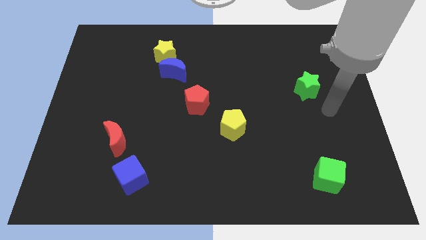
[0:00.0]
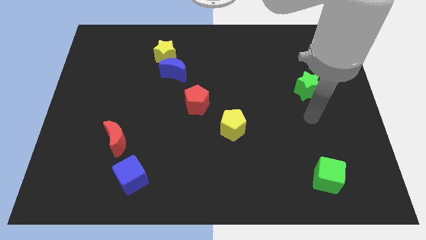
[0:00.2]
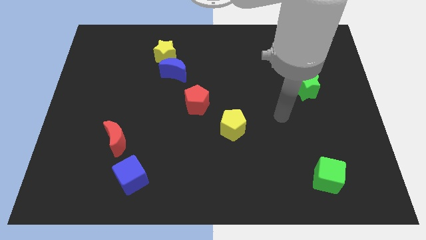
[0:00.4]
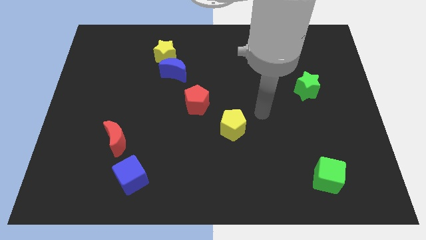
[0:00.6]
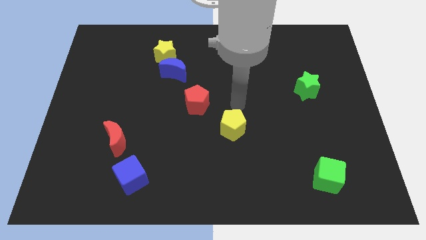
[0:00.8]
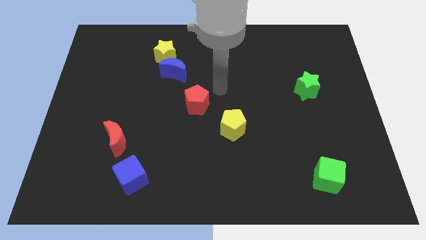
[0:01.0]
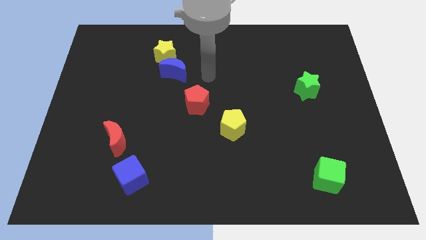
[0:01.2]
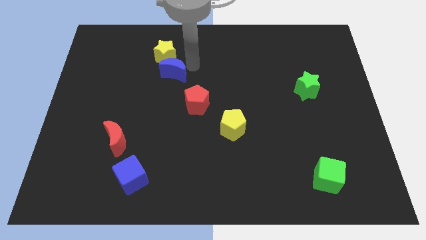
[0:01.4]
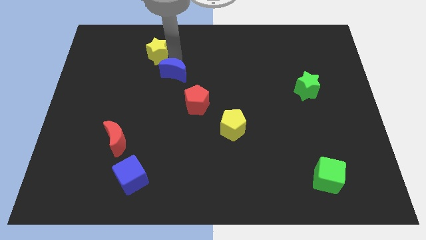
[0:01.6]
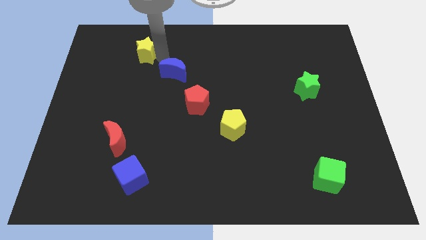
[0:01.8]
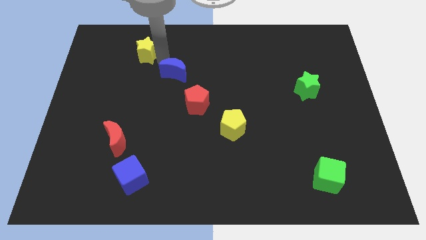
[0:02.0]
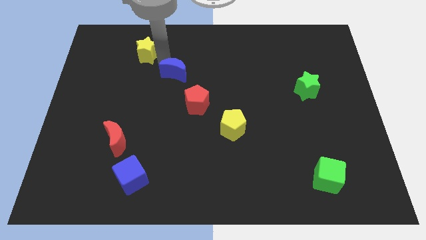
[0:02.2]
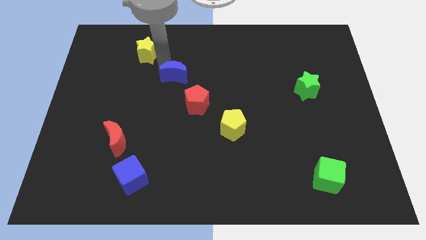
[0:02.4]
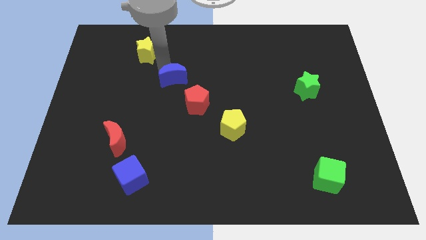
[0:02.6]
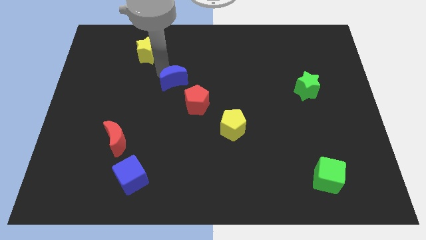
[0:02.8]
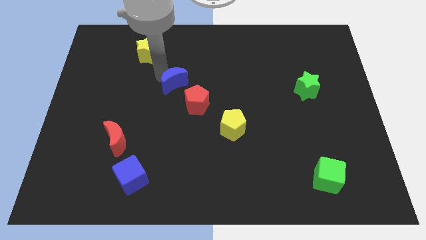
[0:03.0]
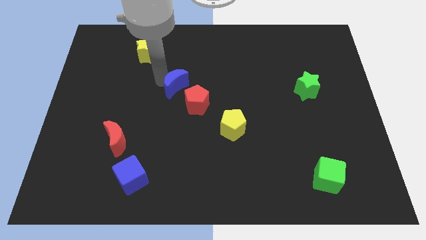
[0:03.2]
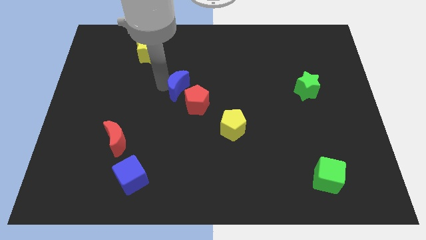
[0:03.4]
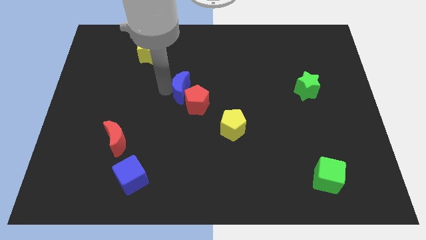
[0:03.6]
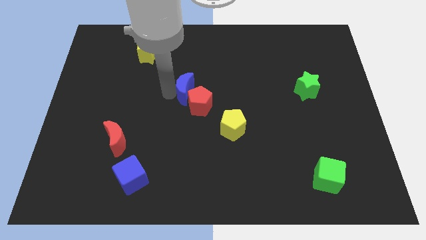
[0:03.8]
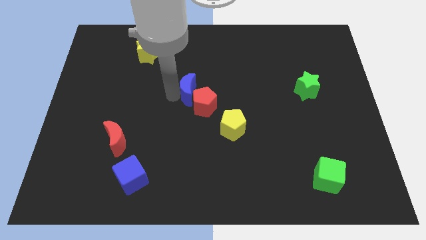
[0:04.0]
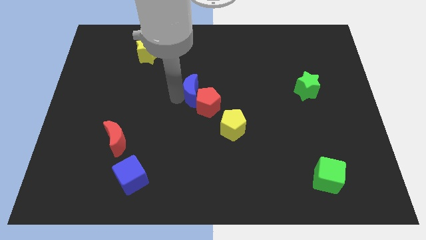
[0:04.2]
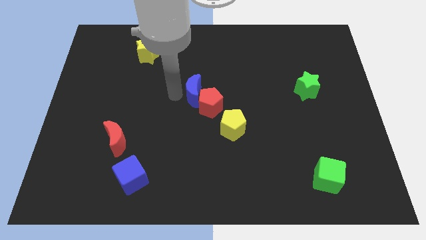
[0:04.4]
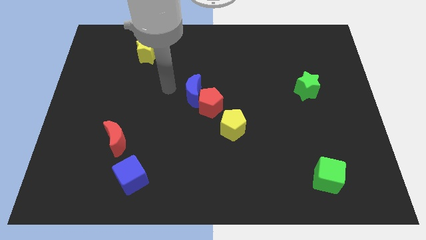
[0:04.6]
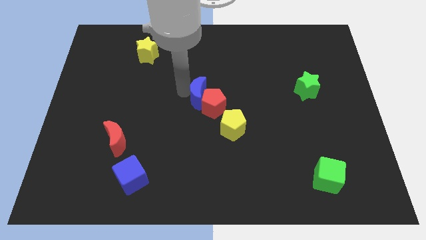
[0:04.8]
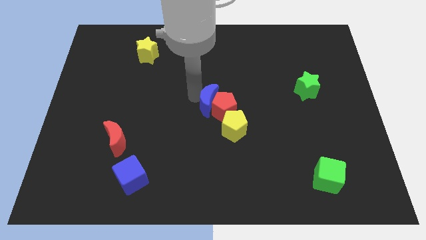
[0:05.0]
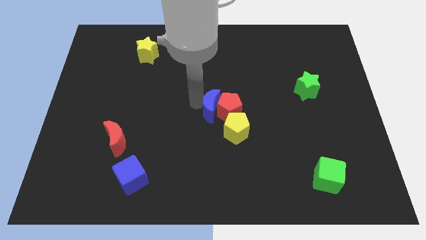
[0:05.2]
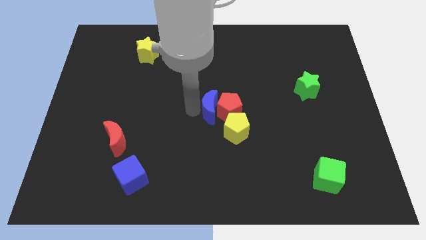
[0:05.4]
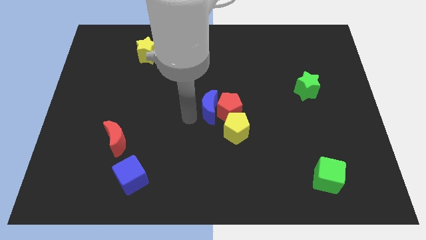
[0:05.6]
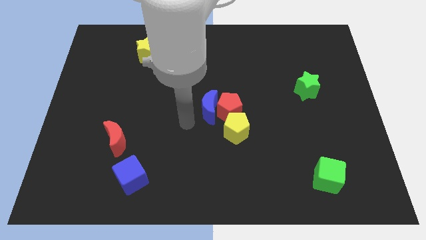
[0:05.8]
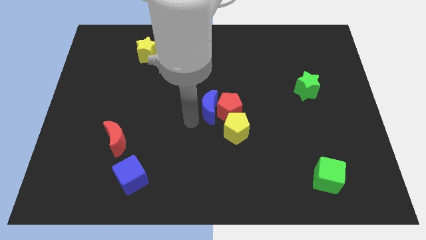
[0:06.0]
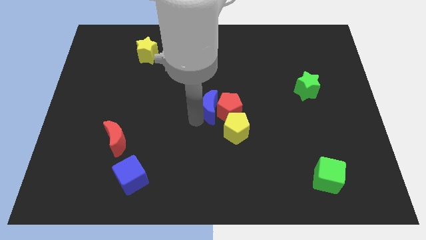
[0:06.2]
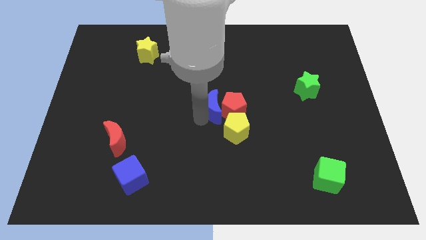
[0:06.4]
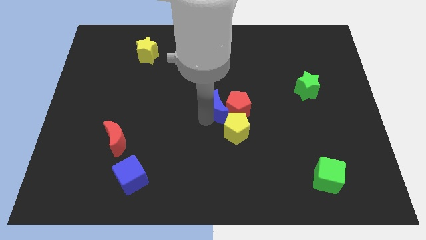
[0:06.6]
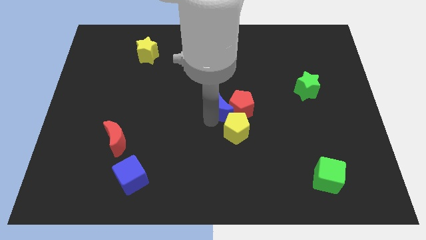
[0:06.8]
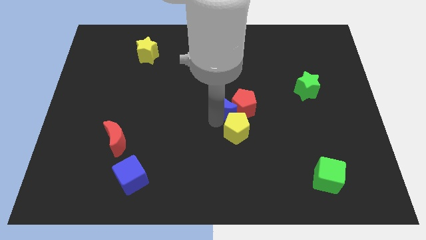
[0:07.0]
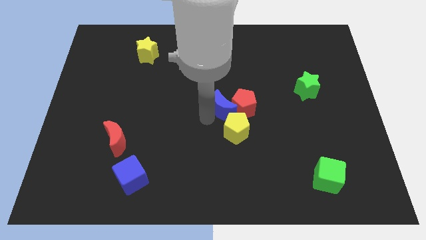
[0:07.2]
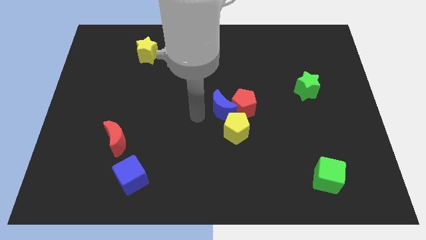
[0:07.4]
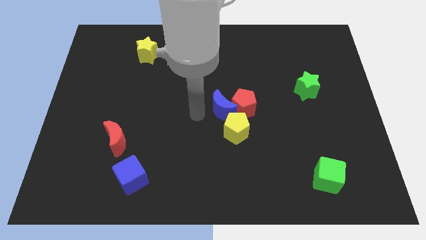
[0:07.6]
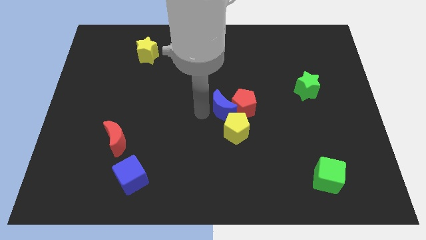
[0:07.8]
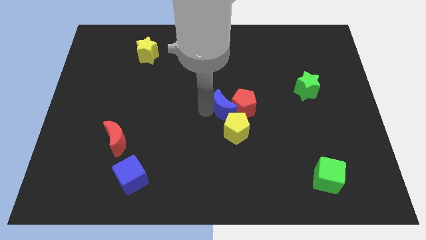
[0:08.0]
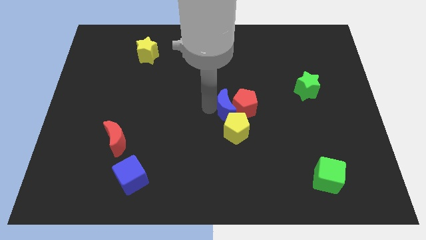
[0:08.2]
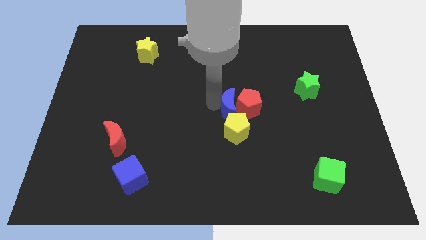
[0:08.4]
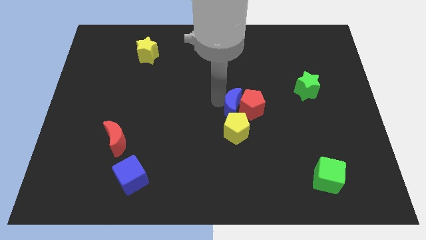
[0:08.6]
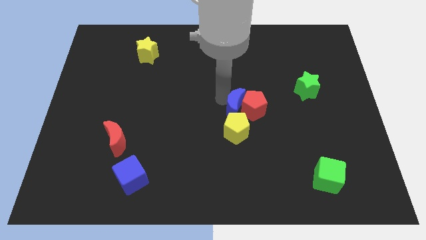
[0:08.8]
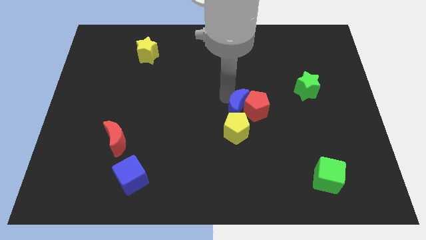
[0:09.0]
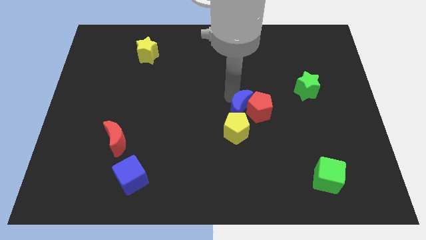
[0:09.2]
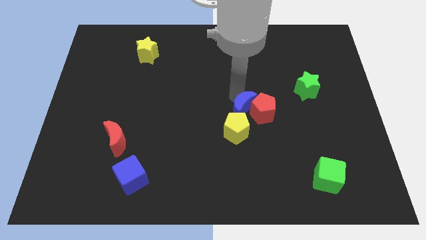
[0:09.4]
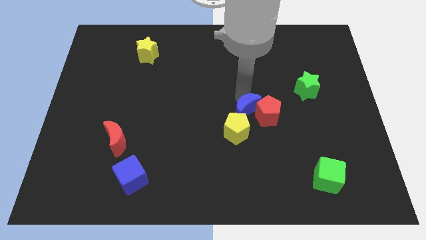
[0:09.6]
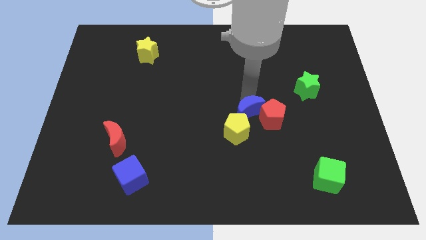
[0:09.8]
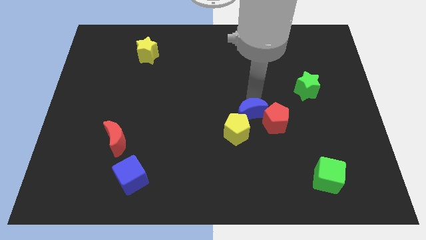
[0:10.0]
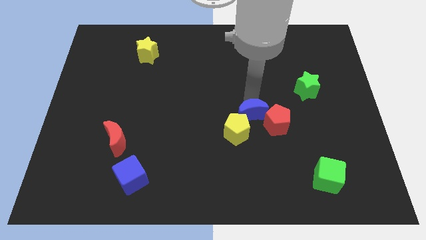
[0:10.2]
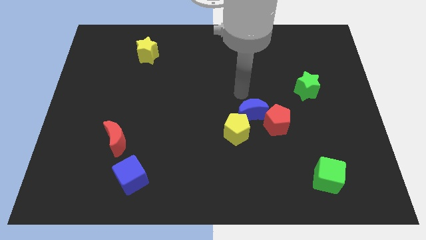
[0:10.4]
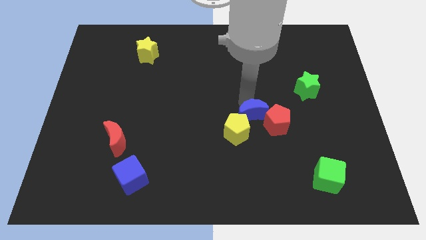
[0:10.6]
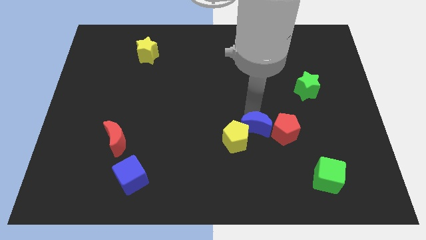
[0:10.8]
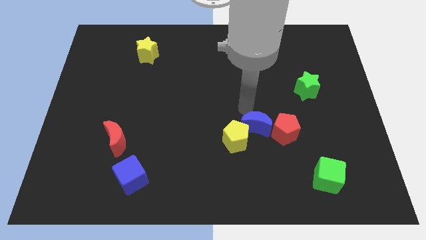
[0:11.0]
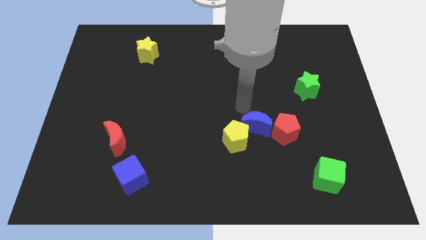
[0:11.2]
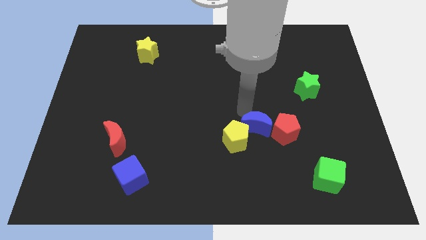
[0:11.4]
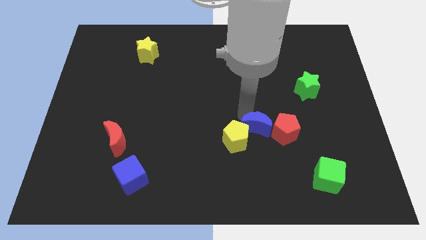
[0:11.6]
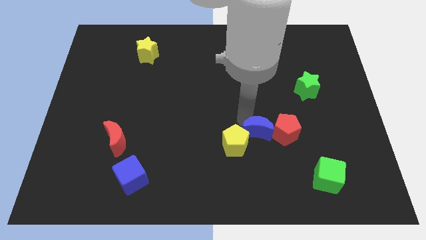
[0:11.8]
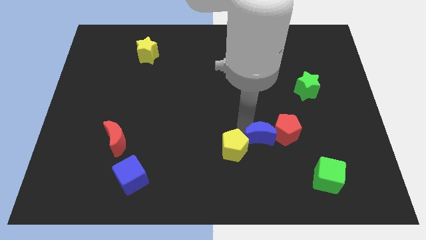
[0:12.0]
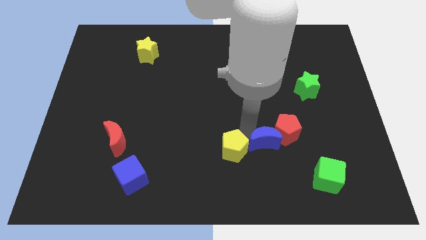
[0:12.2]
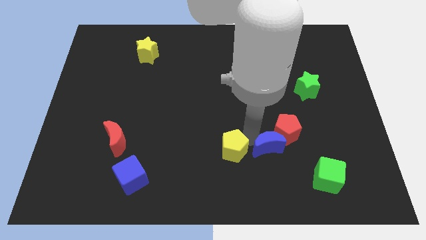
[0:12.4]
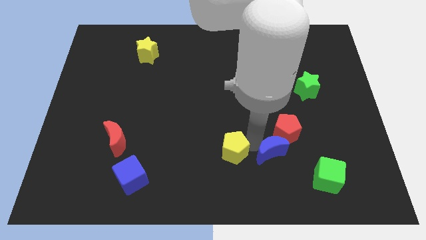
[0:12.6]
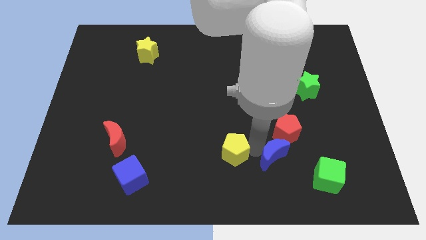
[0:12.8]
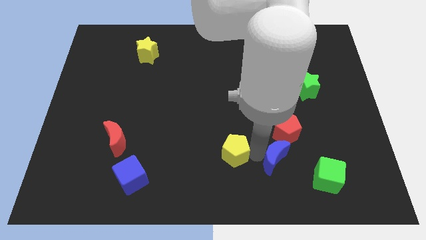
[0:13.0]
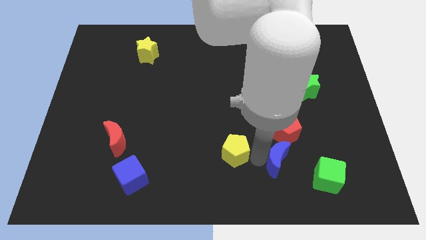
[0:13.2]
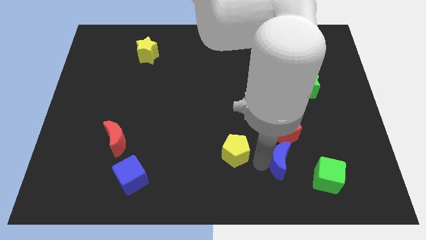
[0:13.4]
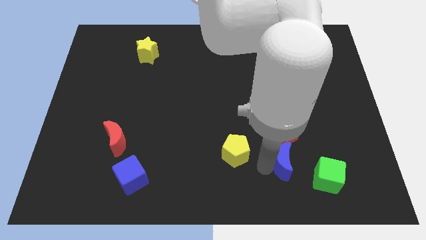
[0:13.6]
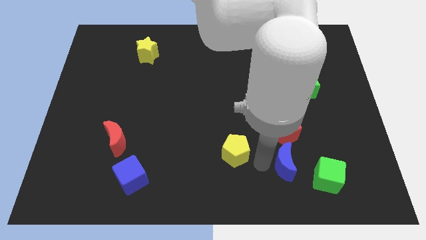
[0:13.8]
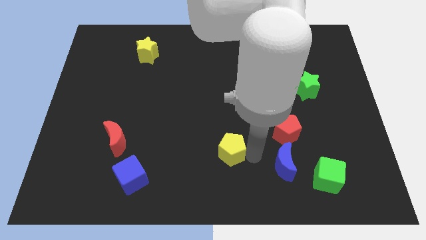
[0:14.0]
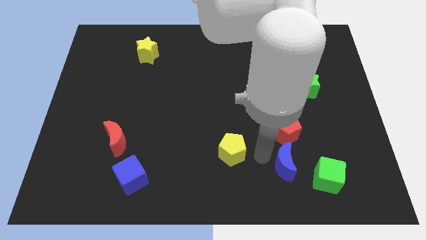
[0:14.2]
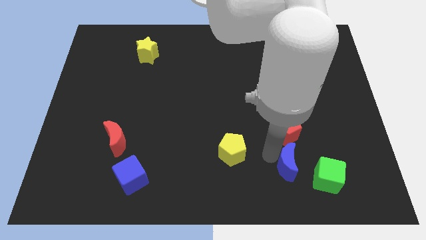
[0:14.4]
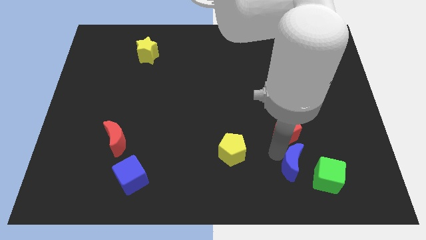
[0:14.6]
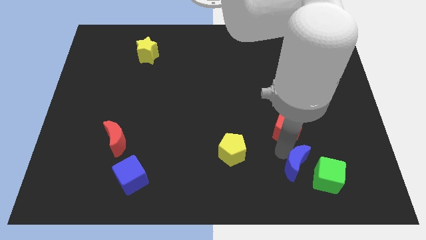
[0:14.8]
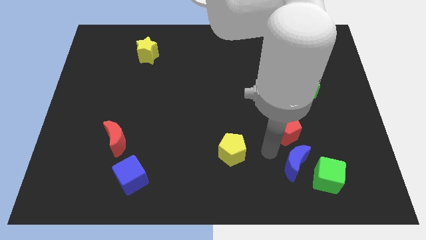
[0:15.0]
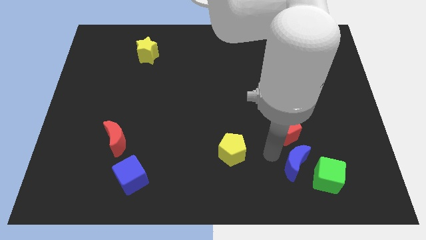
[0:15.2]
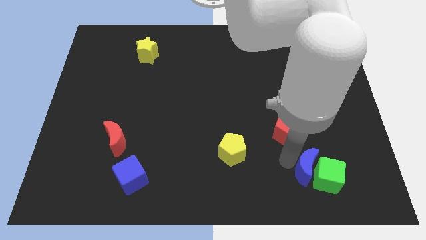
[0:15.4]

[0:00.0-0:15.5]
move the blue moon close to the green cube

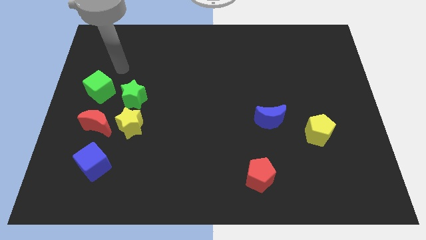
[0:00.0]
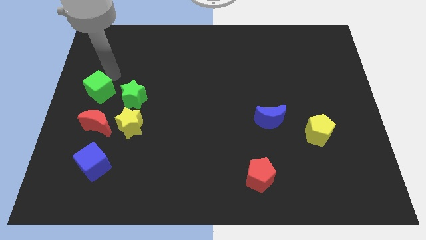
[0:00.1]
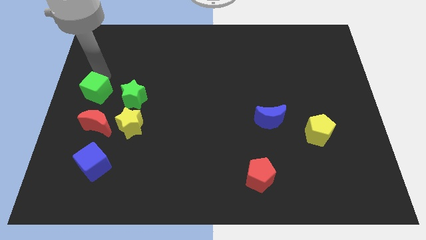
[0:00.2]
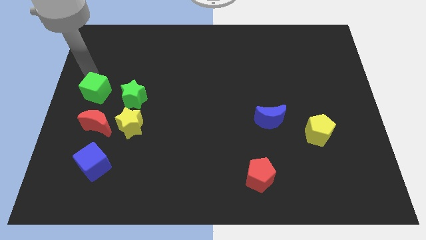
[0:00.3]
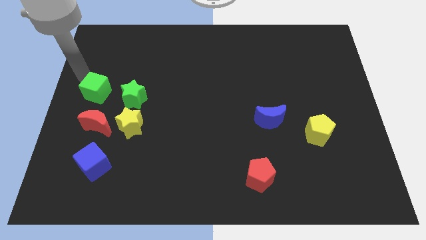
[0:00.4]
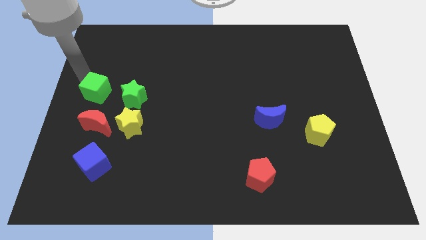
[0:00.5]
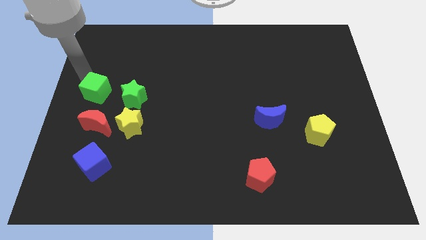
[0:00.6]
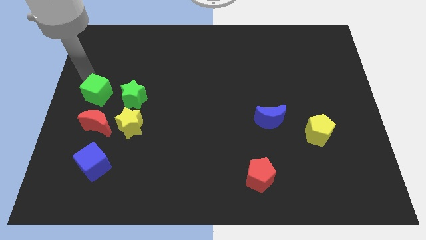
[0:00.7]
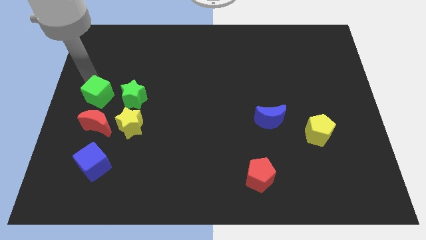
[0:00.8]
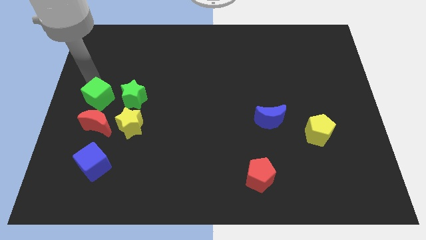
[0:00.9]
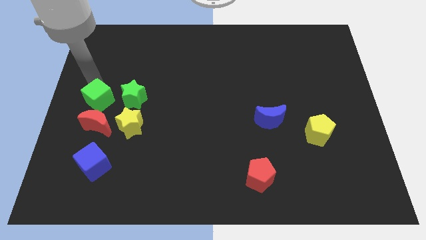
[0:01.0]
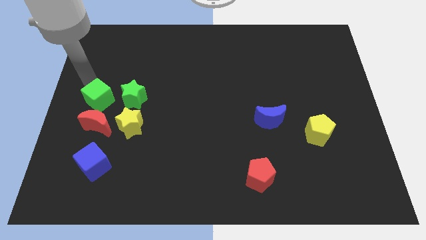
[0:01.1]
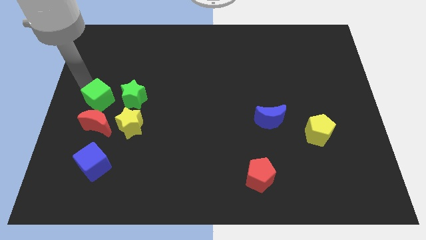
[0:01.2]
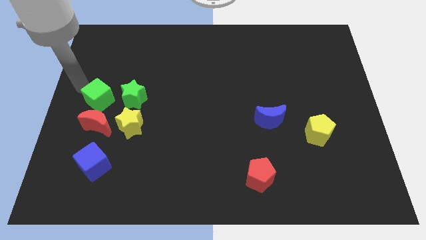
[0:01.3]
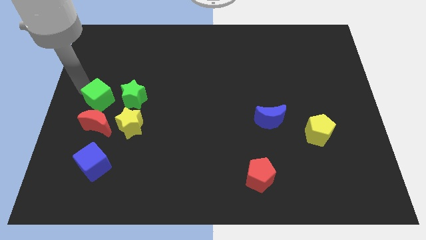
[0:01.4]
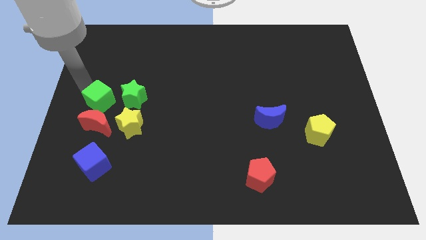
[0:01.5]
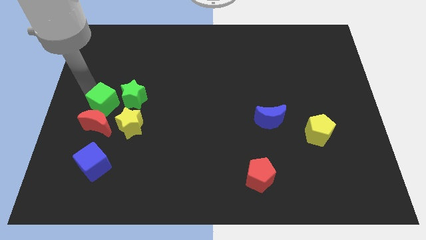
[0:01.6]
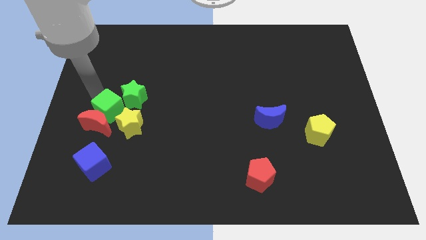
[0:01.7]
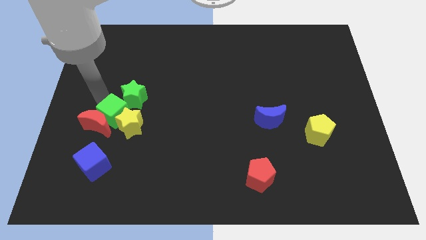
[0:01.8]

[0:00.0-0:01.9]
put the green cube close to the yellow star
